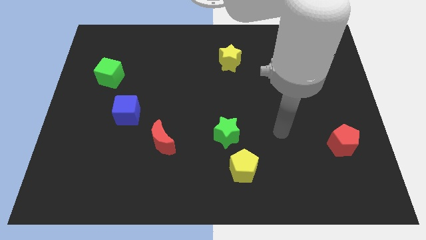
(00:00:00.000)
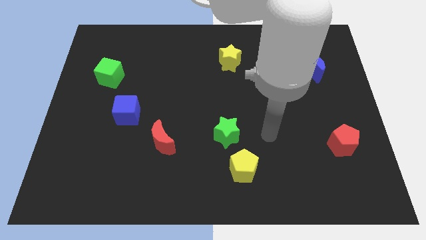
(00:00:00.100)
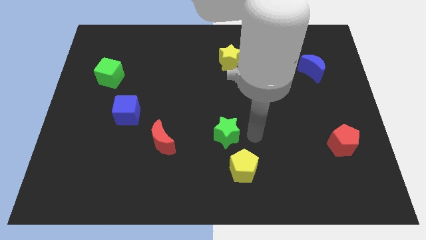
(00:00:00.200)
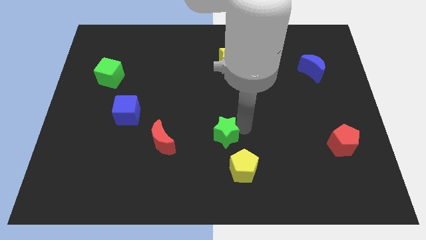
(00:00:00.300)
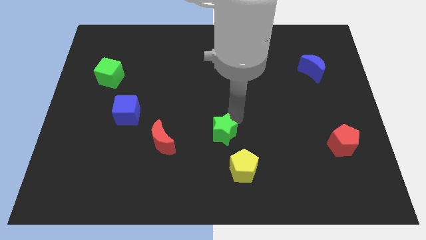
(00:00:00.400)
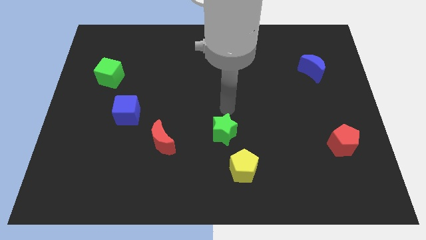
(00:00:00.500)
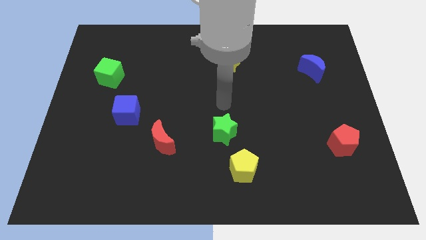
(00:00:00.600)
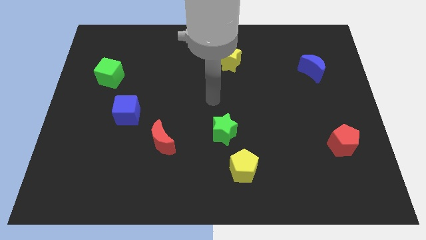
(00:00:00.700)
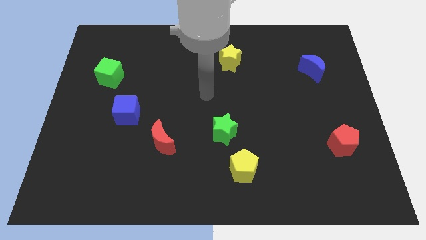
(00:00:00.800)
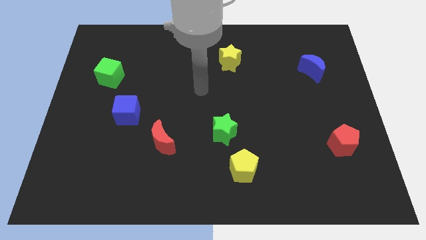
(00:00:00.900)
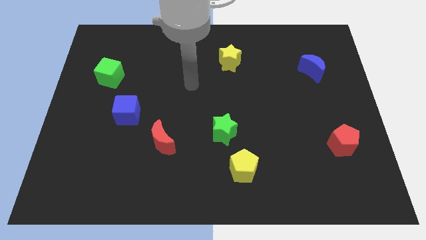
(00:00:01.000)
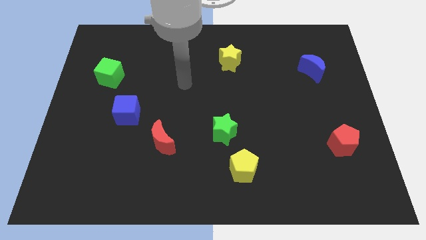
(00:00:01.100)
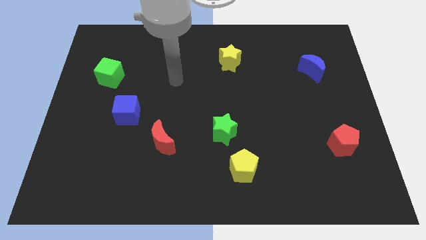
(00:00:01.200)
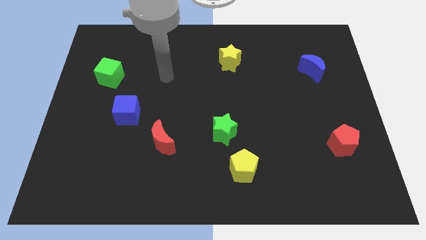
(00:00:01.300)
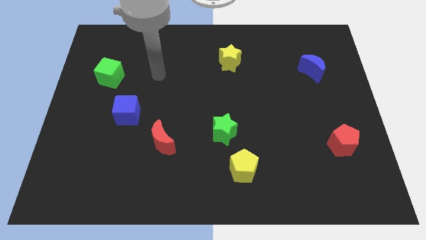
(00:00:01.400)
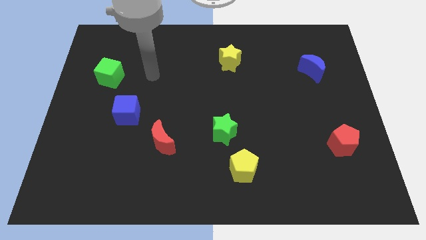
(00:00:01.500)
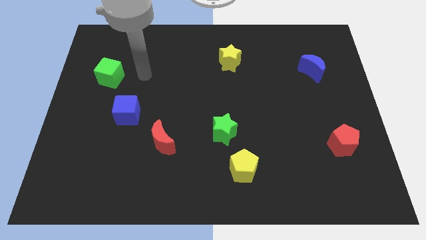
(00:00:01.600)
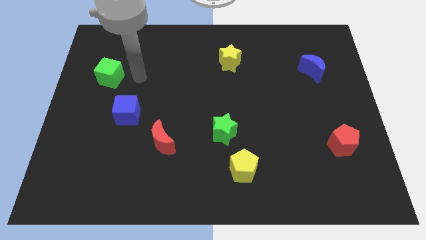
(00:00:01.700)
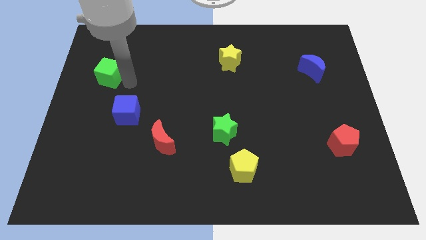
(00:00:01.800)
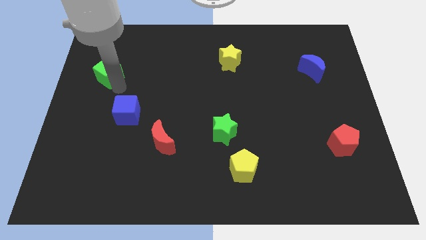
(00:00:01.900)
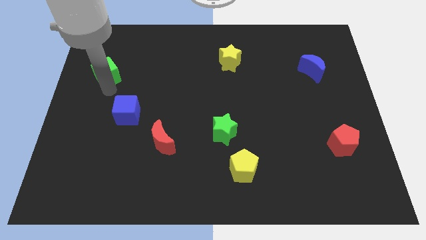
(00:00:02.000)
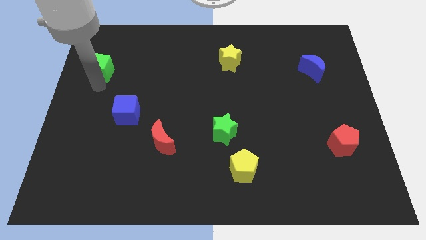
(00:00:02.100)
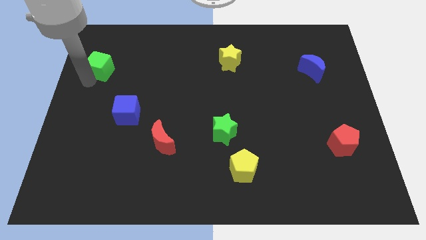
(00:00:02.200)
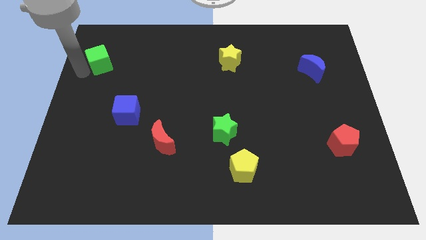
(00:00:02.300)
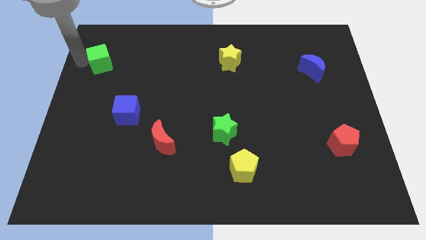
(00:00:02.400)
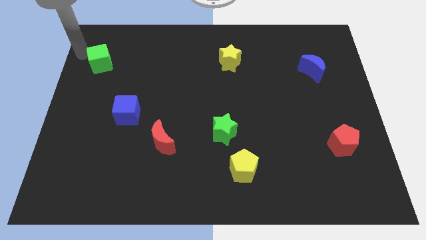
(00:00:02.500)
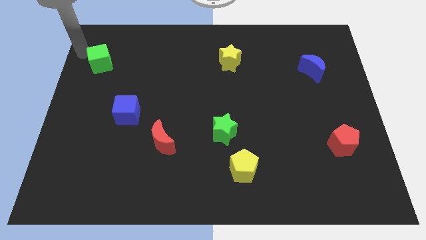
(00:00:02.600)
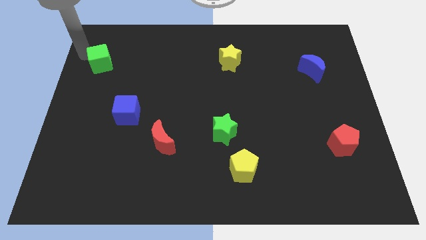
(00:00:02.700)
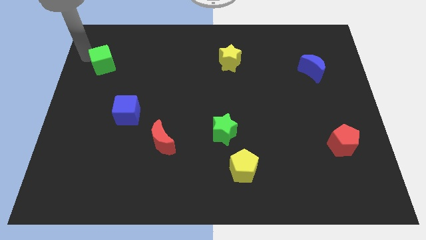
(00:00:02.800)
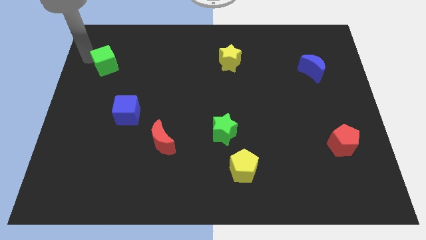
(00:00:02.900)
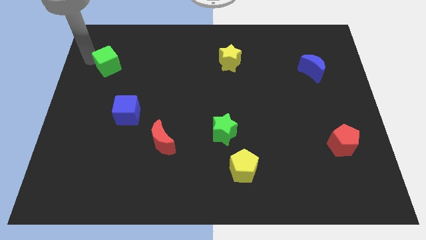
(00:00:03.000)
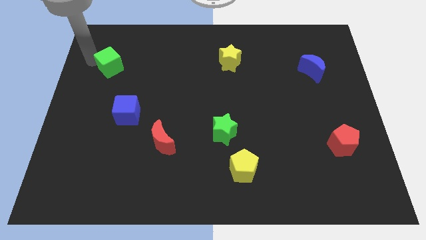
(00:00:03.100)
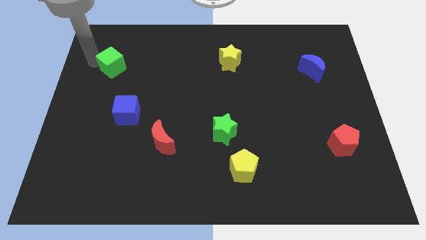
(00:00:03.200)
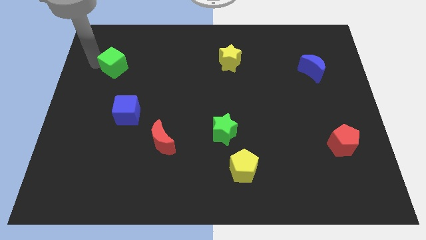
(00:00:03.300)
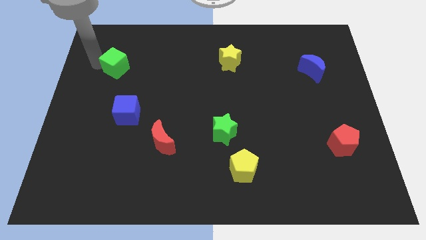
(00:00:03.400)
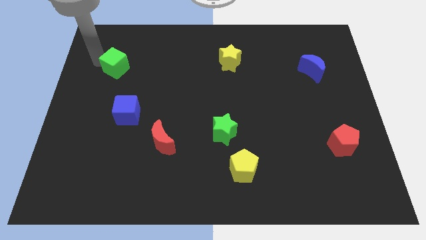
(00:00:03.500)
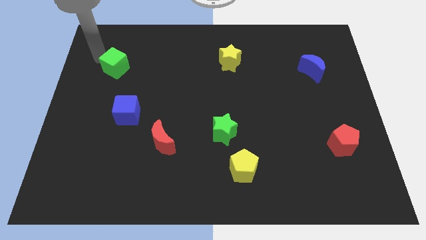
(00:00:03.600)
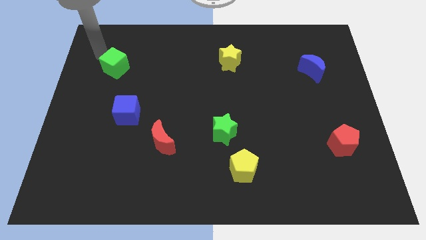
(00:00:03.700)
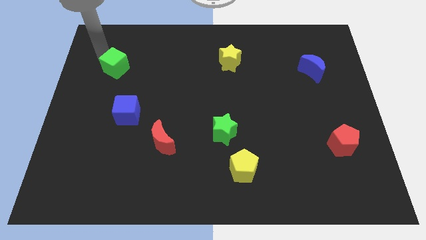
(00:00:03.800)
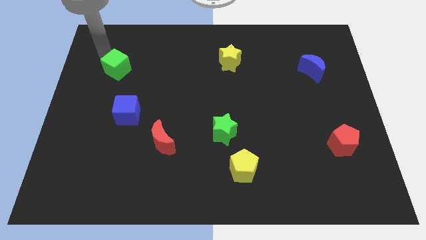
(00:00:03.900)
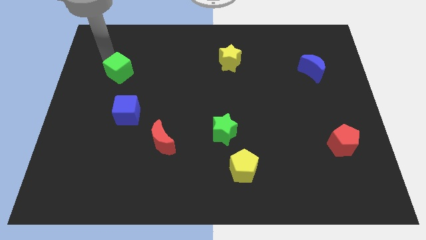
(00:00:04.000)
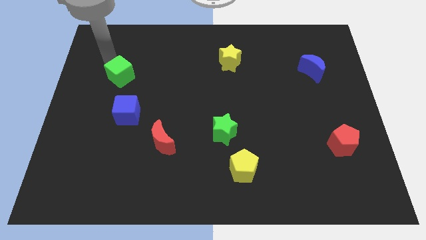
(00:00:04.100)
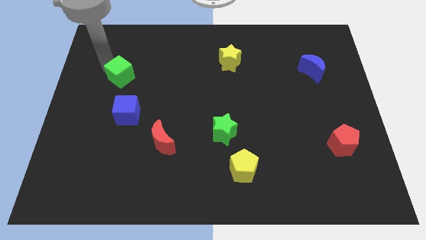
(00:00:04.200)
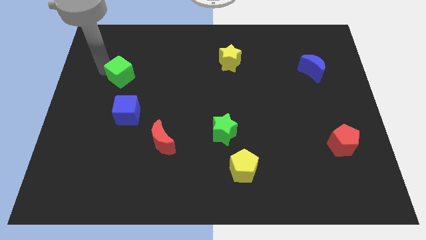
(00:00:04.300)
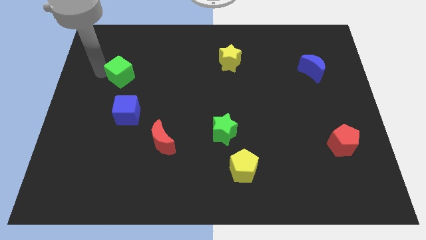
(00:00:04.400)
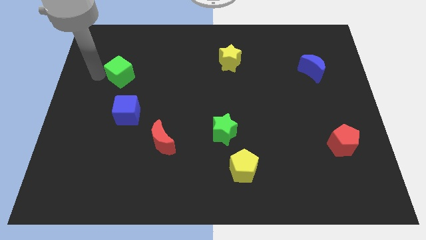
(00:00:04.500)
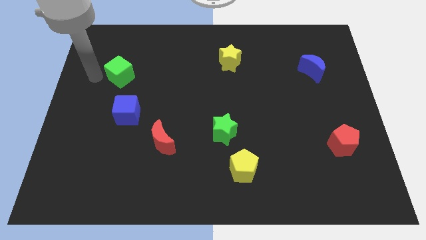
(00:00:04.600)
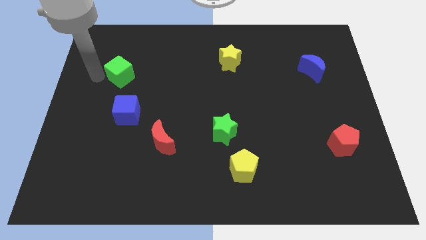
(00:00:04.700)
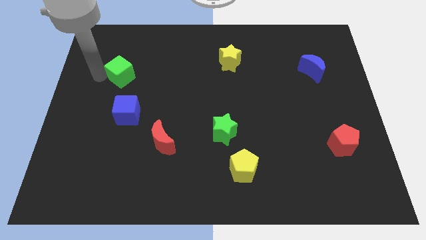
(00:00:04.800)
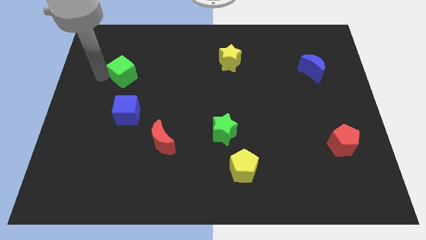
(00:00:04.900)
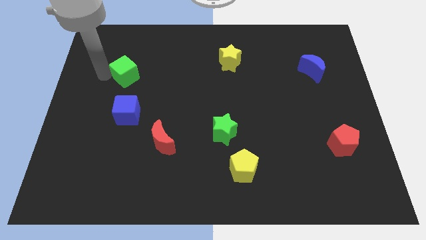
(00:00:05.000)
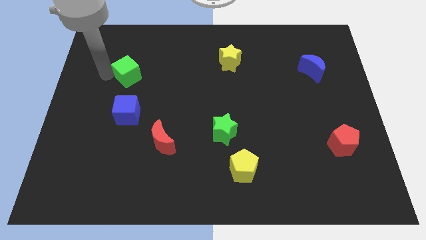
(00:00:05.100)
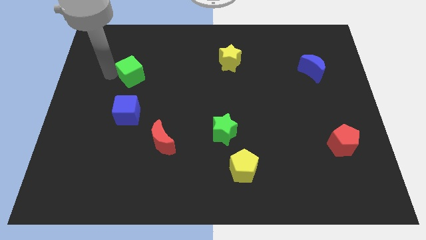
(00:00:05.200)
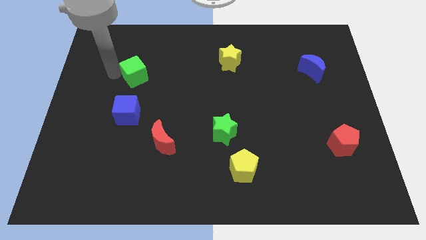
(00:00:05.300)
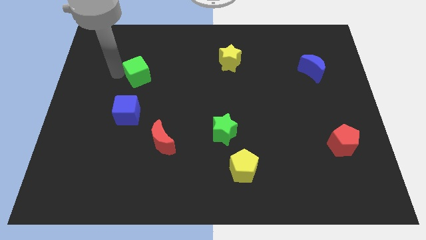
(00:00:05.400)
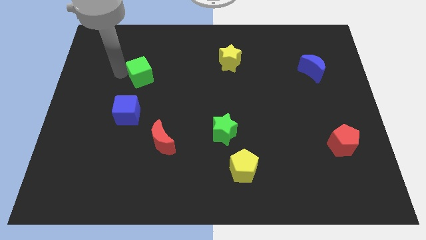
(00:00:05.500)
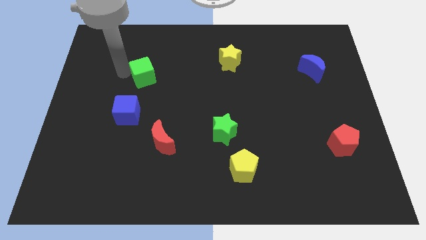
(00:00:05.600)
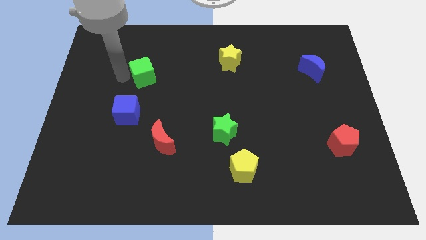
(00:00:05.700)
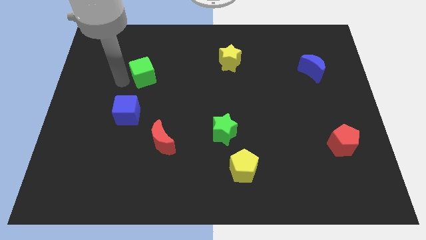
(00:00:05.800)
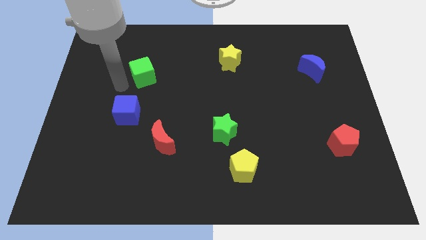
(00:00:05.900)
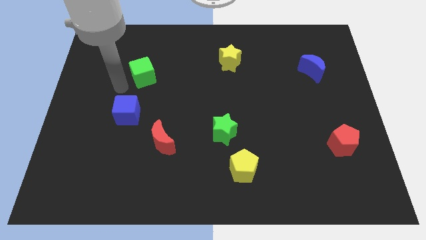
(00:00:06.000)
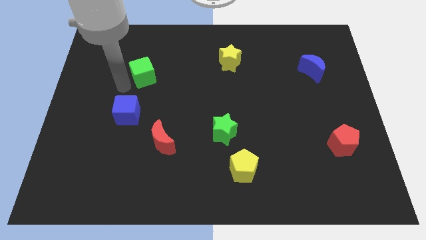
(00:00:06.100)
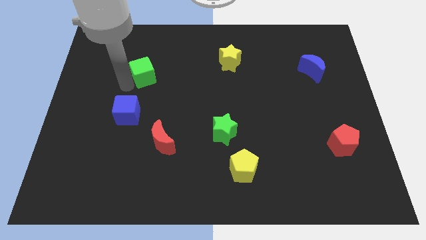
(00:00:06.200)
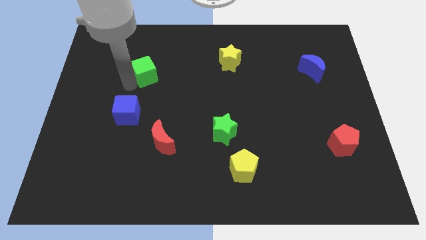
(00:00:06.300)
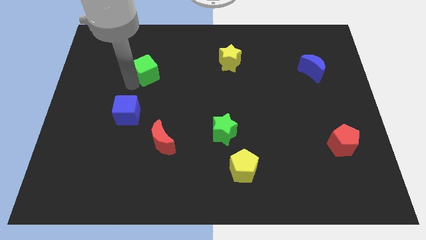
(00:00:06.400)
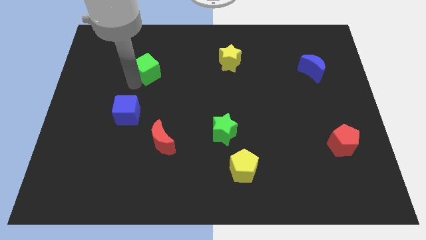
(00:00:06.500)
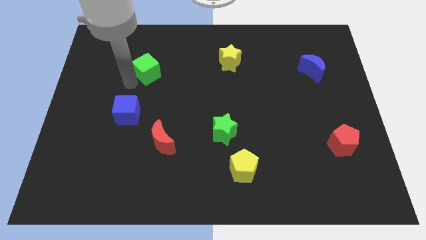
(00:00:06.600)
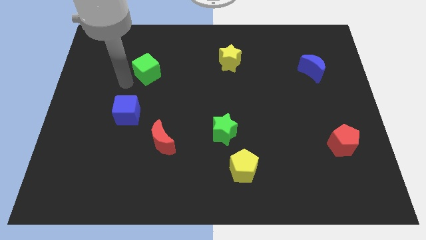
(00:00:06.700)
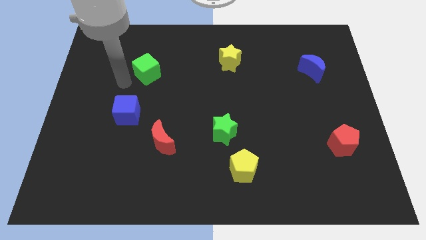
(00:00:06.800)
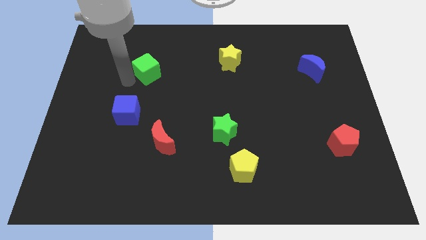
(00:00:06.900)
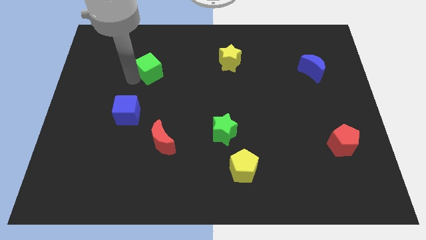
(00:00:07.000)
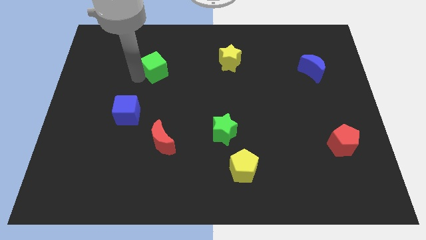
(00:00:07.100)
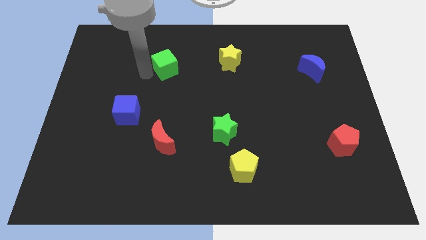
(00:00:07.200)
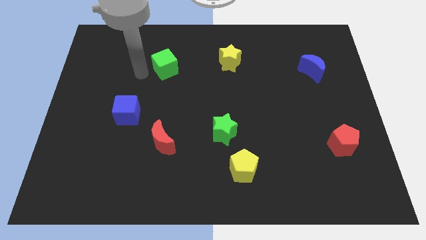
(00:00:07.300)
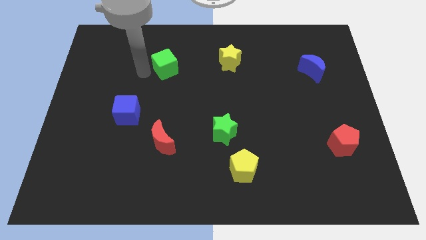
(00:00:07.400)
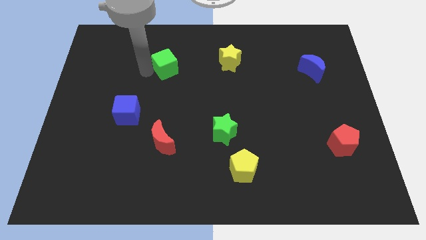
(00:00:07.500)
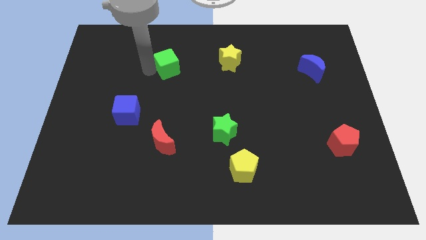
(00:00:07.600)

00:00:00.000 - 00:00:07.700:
slide the green cube left of the yellow star
